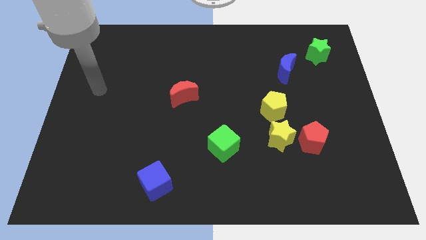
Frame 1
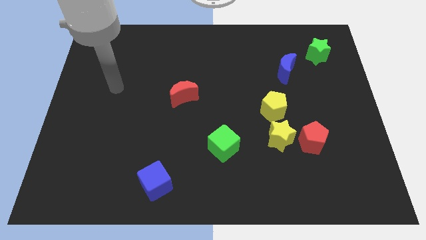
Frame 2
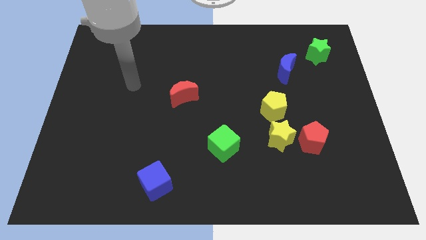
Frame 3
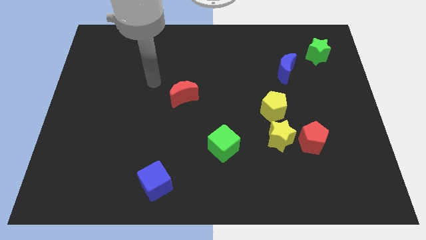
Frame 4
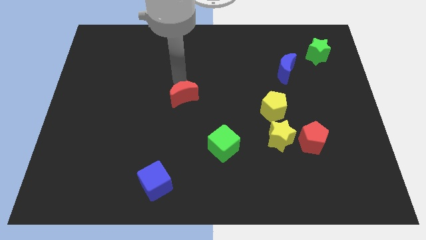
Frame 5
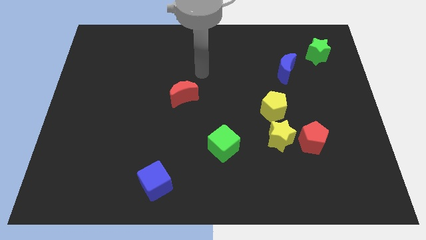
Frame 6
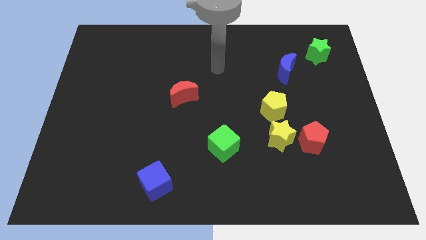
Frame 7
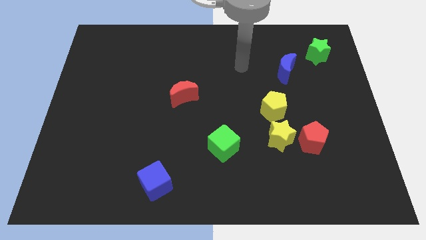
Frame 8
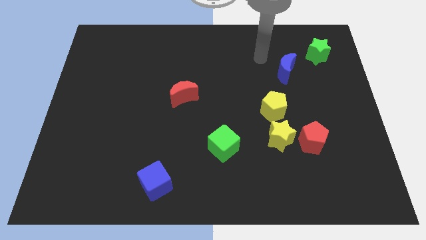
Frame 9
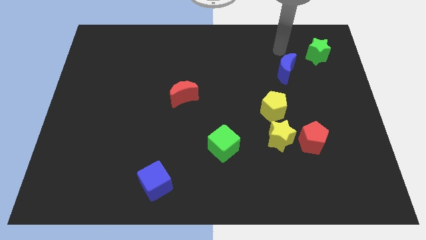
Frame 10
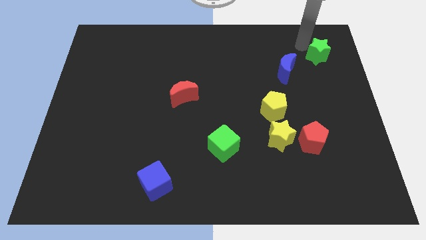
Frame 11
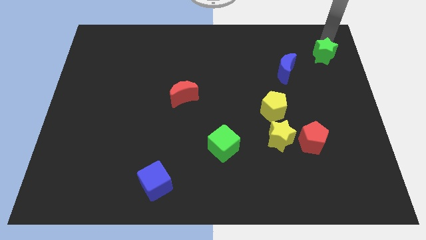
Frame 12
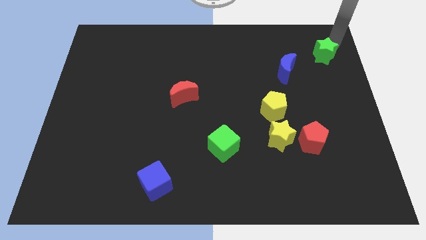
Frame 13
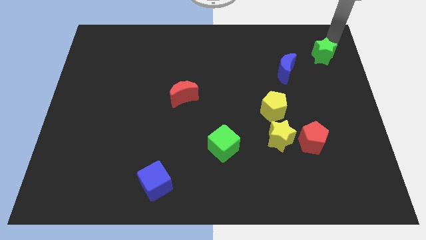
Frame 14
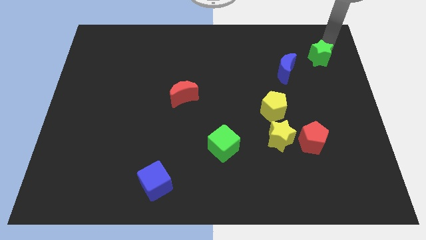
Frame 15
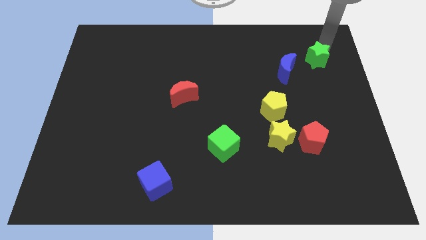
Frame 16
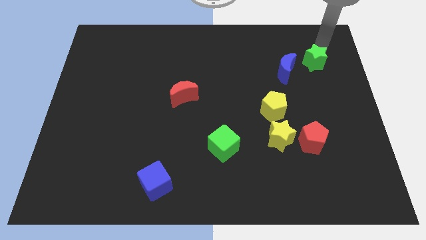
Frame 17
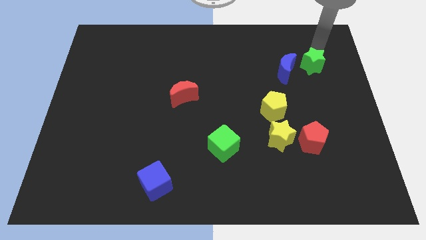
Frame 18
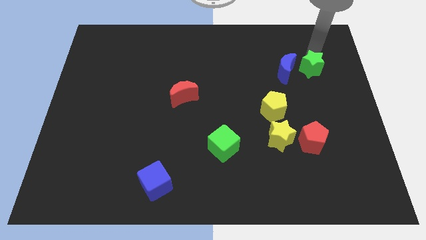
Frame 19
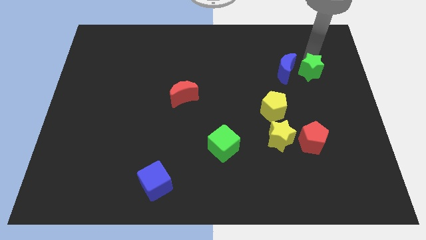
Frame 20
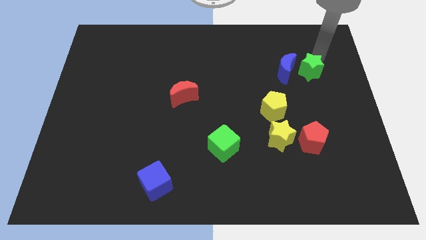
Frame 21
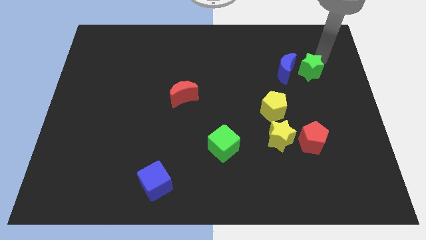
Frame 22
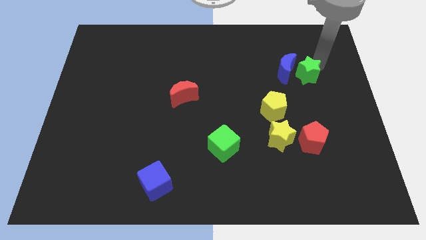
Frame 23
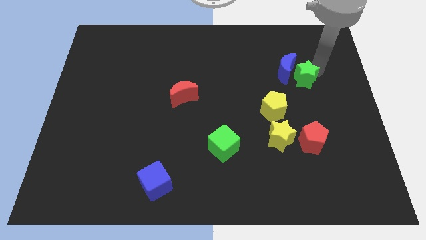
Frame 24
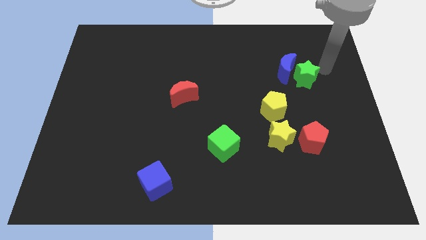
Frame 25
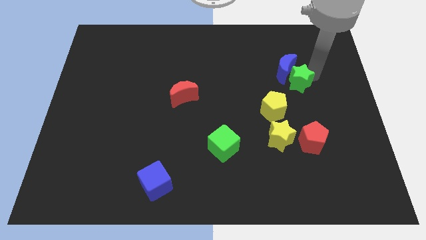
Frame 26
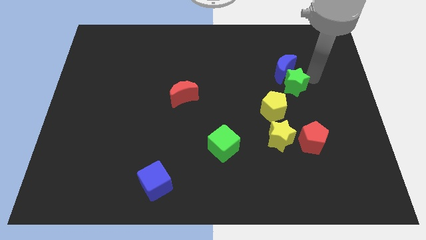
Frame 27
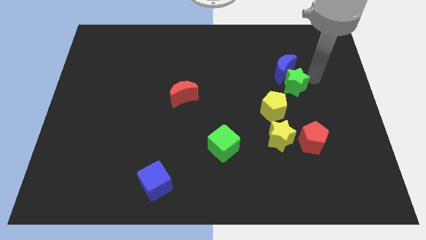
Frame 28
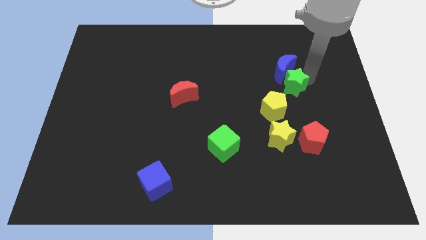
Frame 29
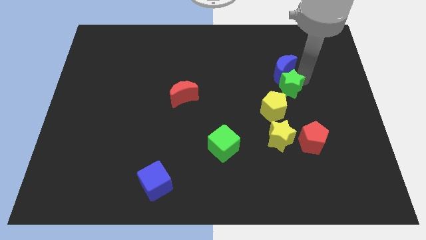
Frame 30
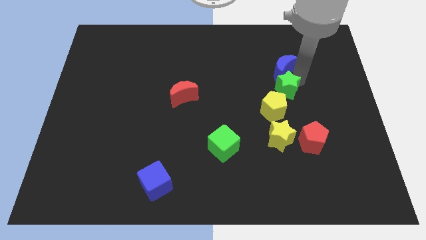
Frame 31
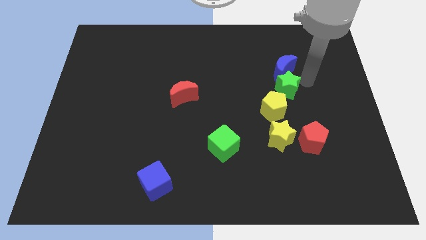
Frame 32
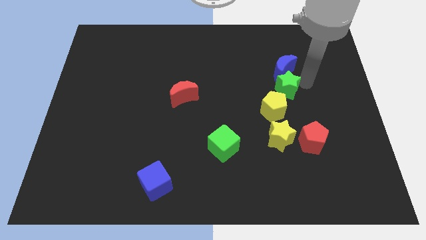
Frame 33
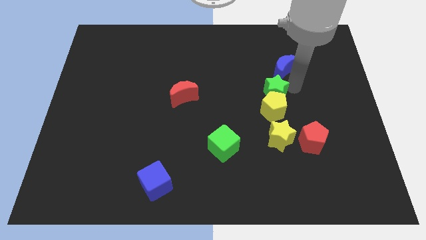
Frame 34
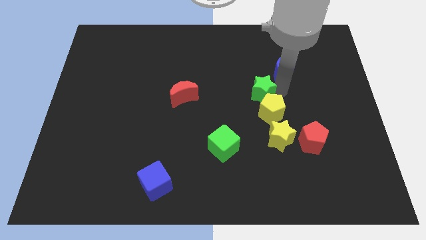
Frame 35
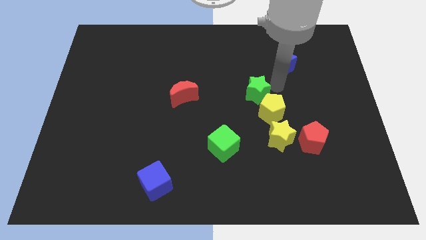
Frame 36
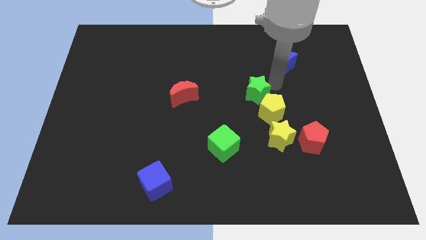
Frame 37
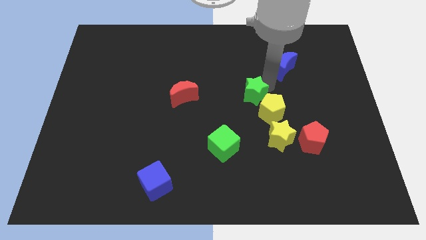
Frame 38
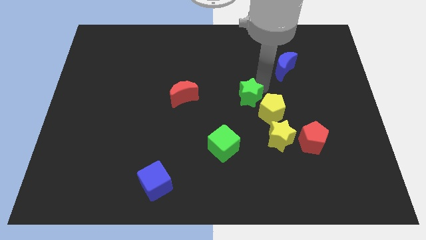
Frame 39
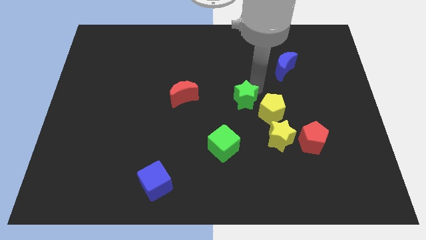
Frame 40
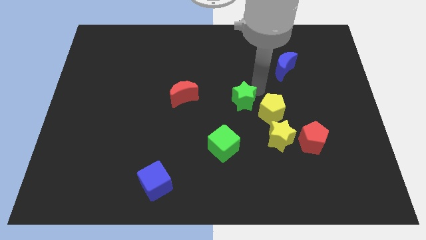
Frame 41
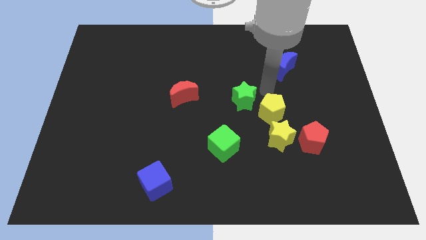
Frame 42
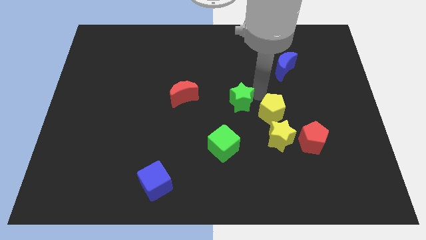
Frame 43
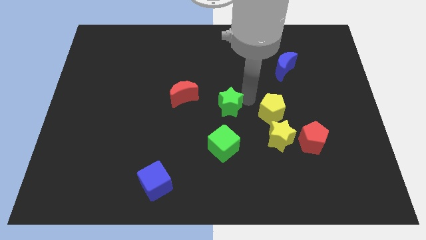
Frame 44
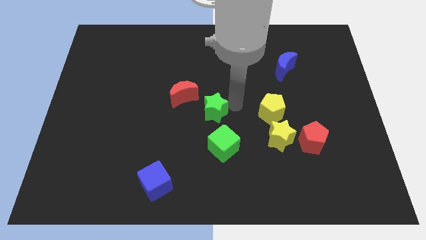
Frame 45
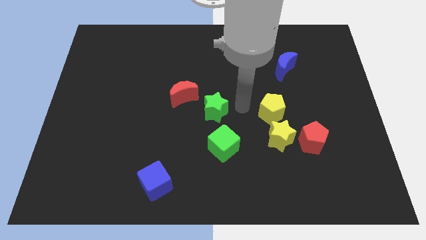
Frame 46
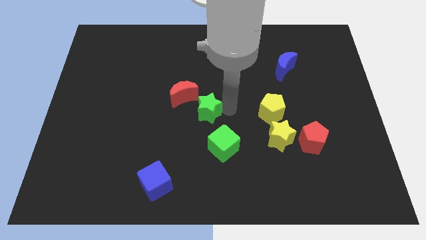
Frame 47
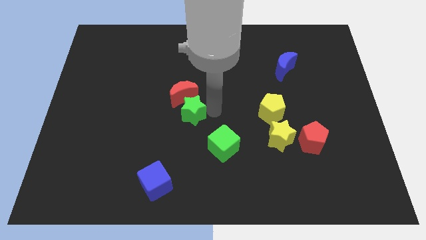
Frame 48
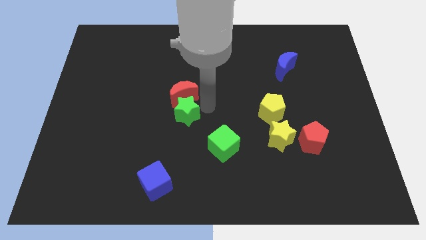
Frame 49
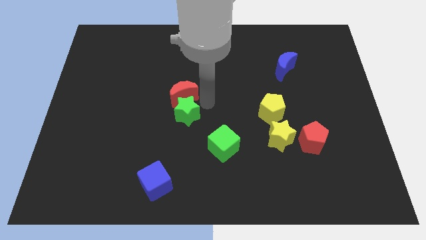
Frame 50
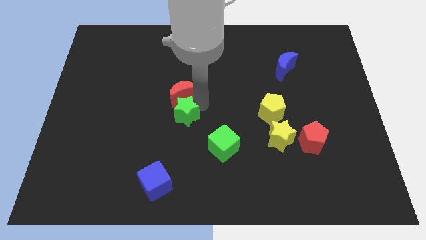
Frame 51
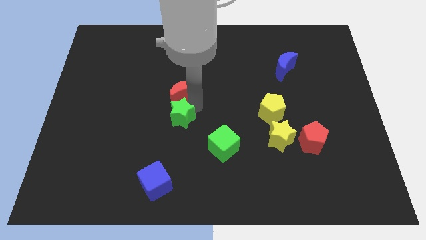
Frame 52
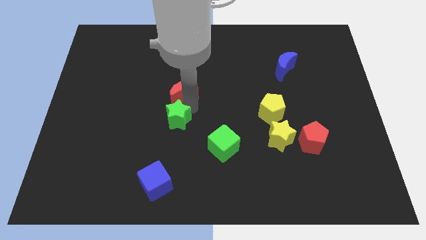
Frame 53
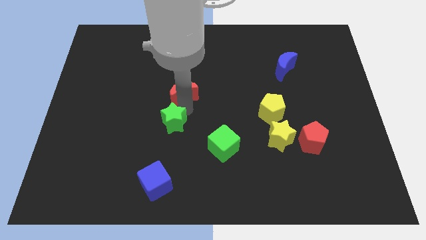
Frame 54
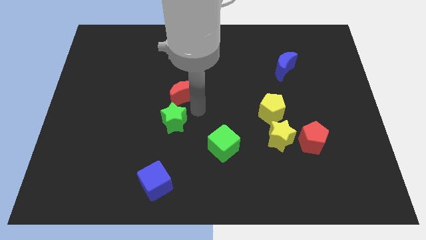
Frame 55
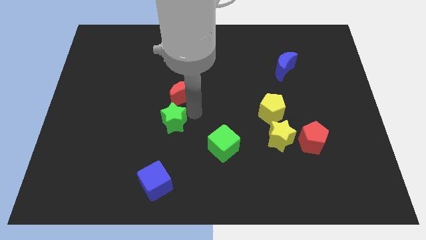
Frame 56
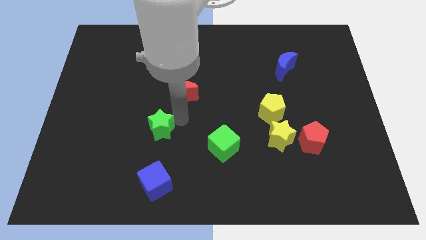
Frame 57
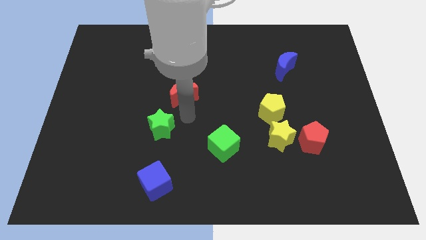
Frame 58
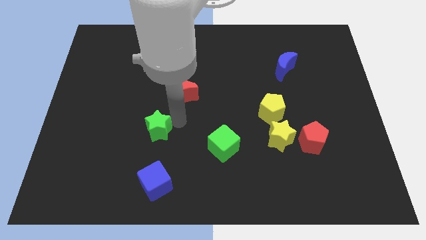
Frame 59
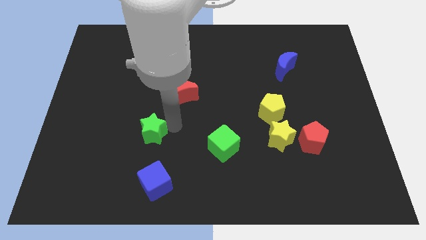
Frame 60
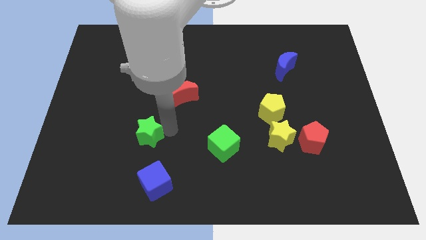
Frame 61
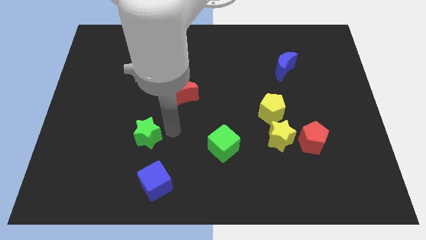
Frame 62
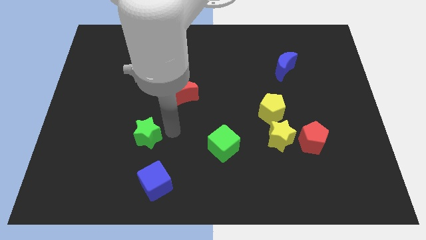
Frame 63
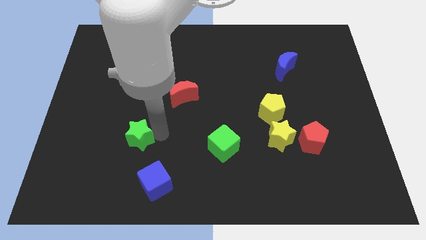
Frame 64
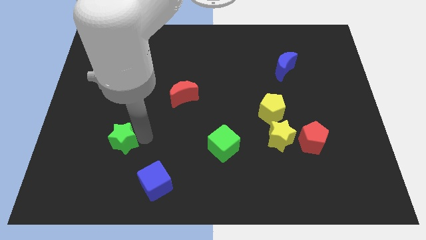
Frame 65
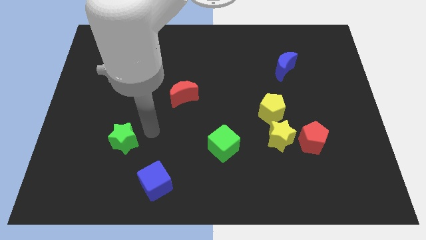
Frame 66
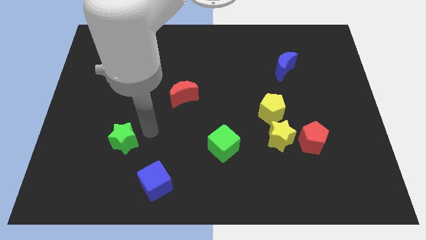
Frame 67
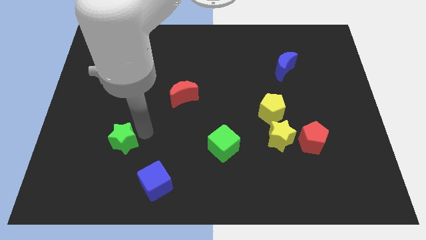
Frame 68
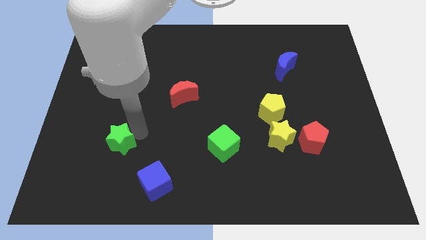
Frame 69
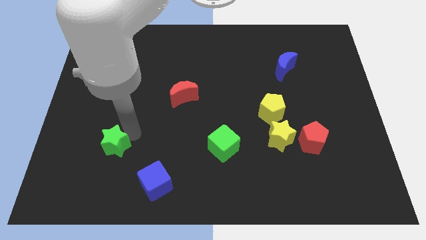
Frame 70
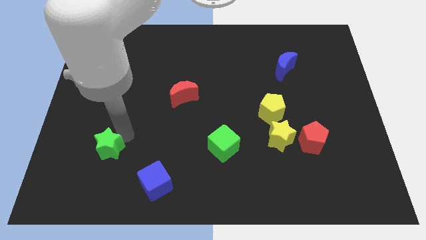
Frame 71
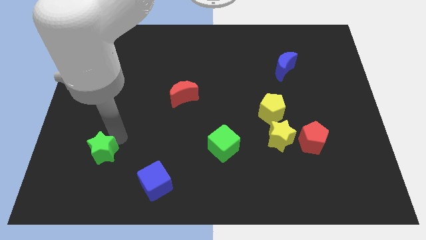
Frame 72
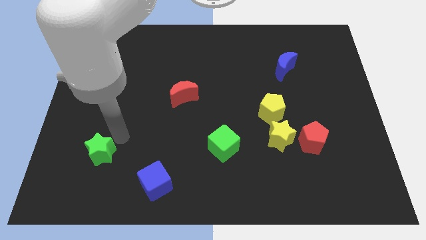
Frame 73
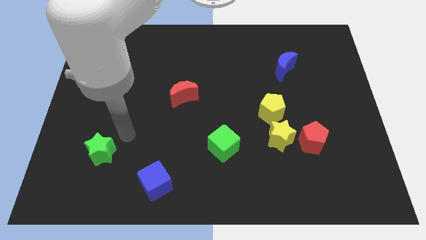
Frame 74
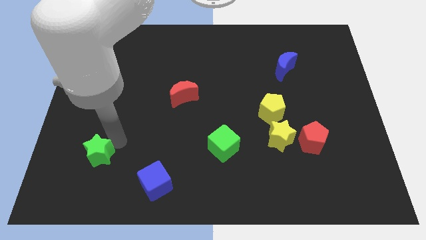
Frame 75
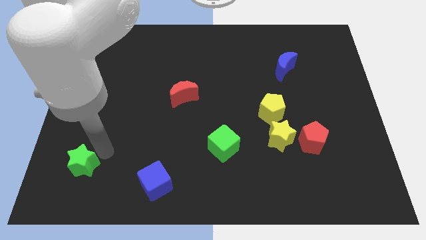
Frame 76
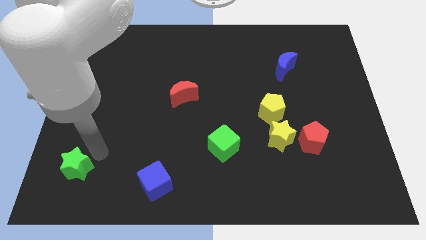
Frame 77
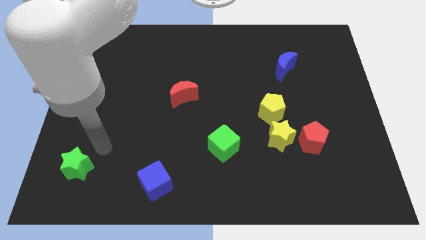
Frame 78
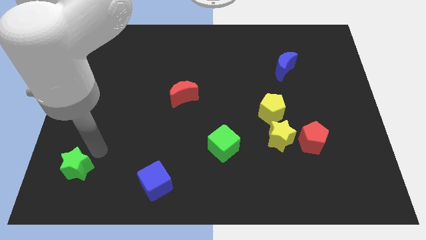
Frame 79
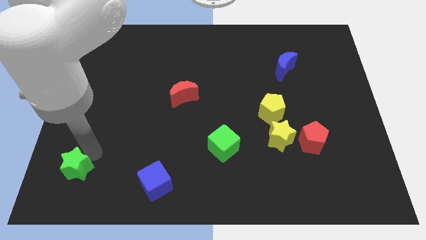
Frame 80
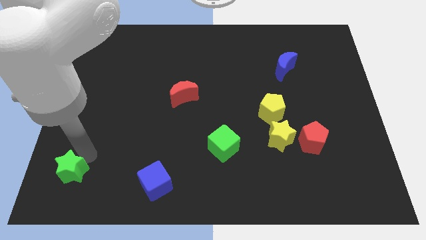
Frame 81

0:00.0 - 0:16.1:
move the green star to the bottom left
